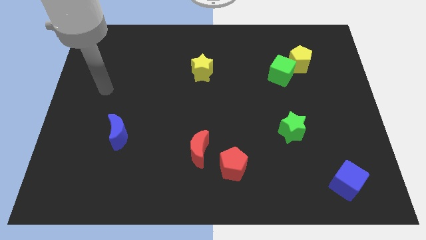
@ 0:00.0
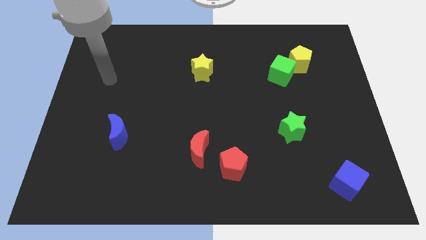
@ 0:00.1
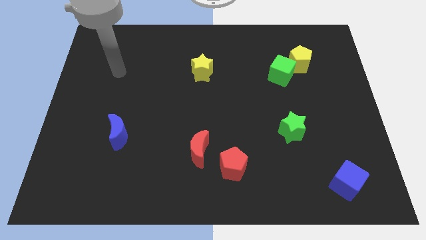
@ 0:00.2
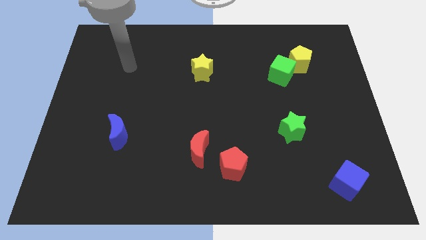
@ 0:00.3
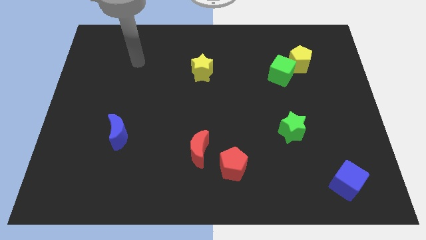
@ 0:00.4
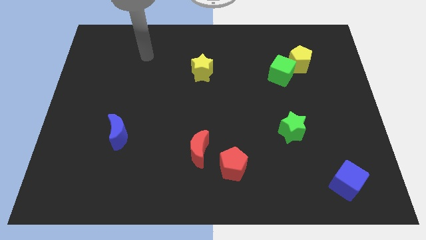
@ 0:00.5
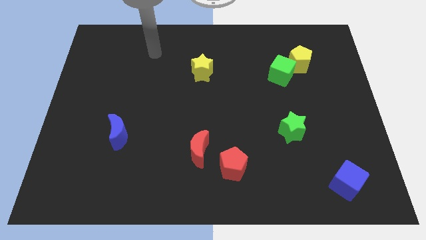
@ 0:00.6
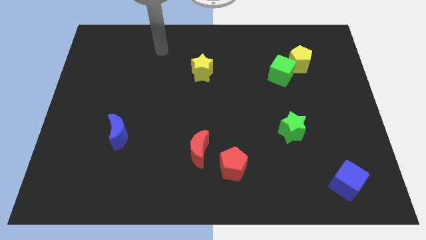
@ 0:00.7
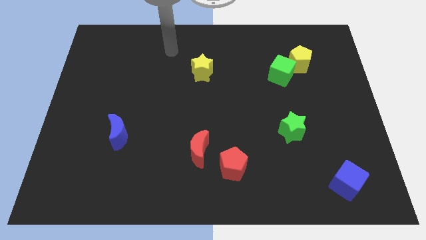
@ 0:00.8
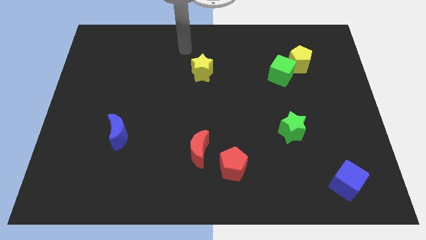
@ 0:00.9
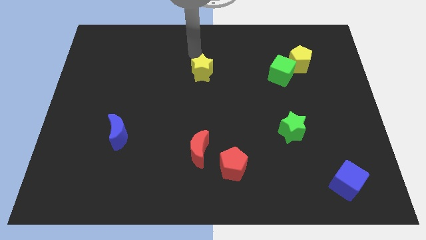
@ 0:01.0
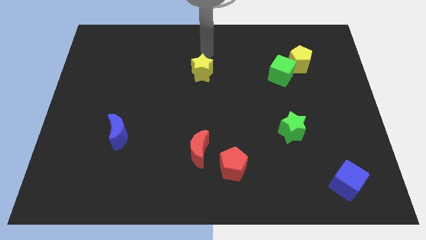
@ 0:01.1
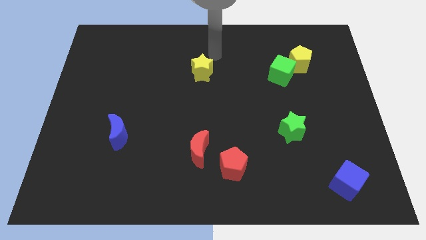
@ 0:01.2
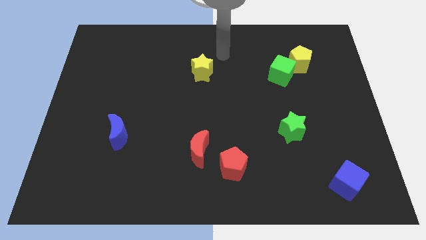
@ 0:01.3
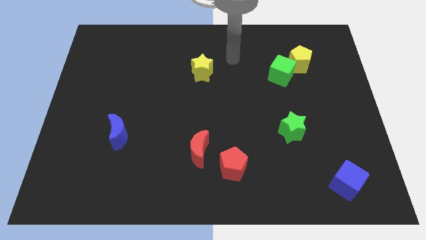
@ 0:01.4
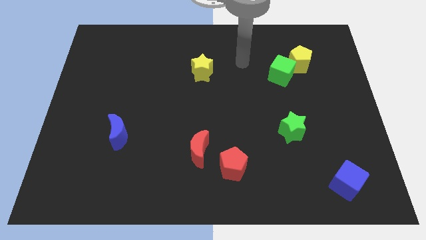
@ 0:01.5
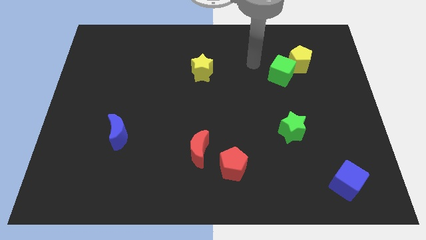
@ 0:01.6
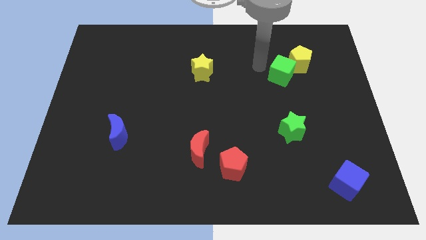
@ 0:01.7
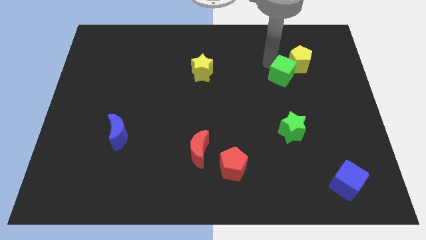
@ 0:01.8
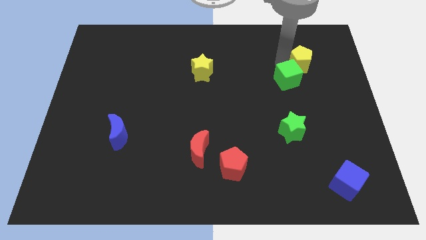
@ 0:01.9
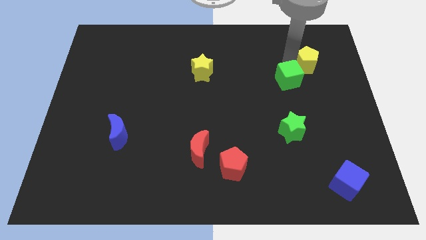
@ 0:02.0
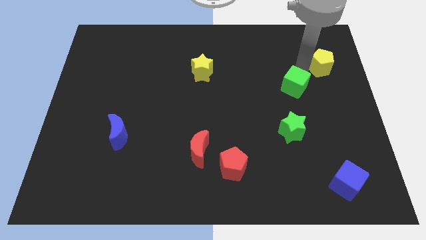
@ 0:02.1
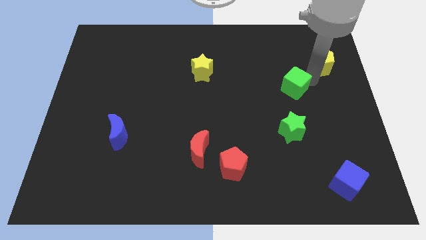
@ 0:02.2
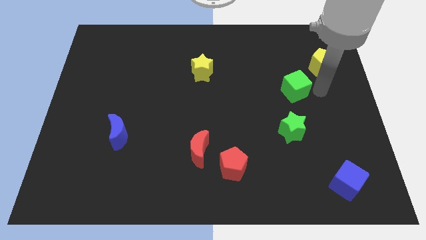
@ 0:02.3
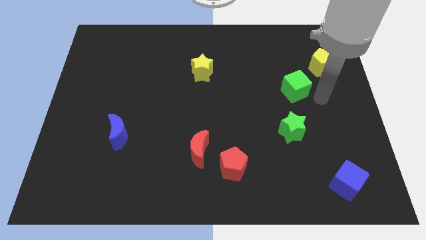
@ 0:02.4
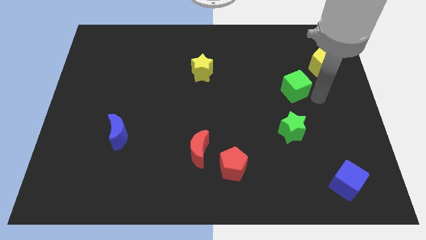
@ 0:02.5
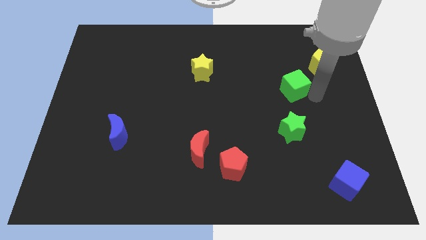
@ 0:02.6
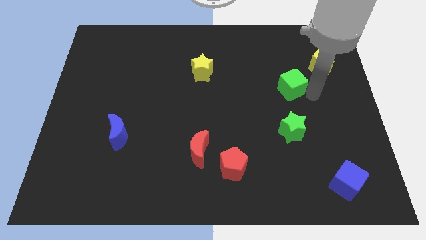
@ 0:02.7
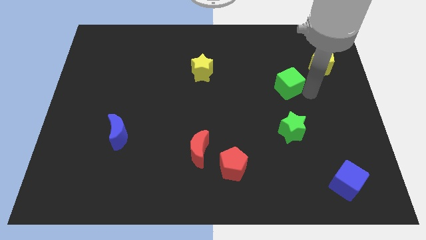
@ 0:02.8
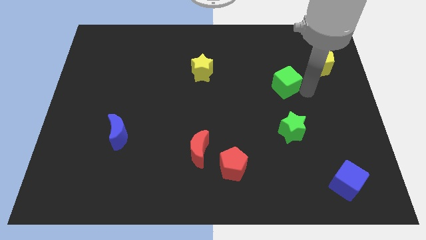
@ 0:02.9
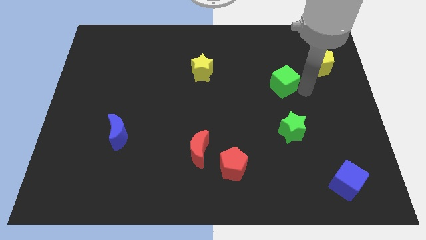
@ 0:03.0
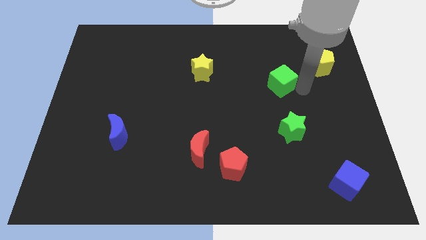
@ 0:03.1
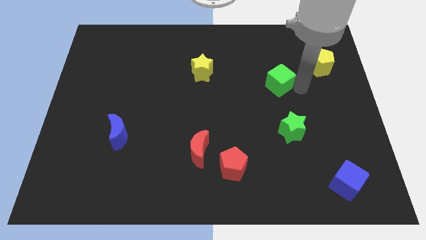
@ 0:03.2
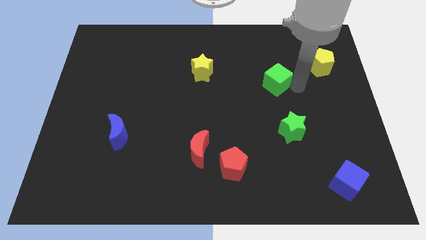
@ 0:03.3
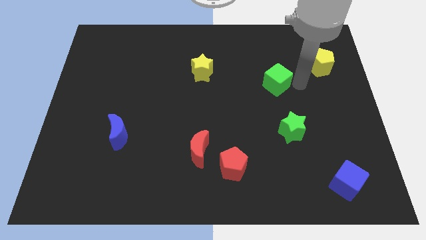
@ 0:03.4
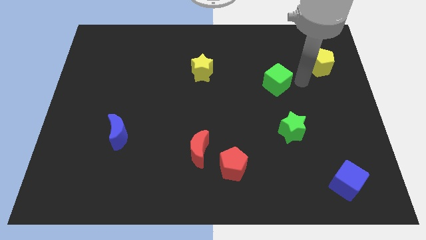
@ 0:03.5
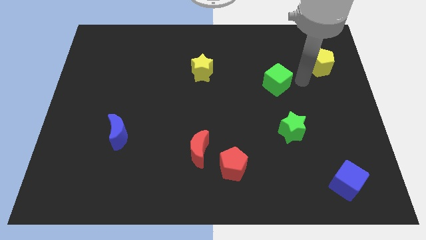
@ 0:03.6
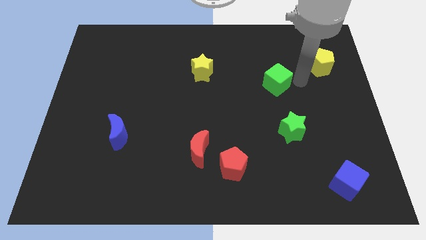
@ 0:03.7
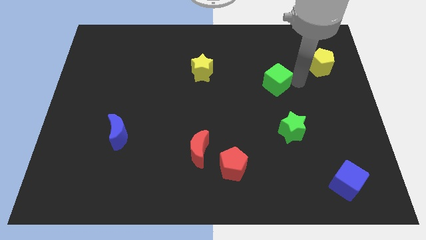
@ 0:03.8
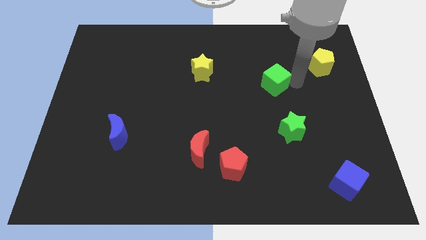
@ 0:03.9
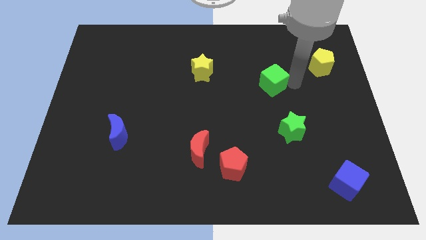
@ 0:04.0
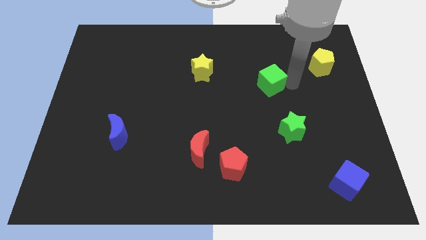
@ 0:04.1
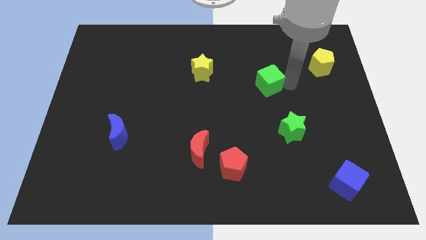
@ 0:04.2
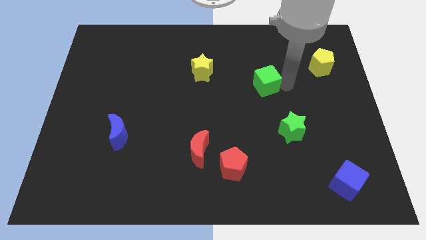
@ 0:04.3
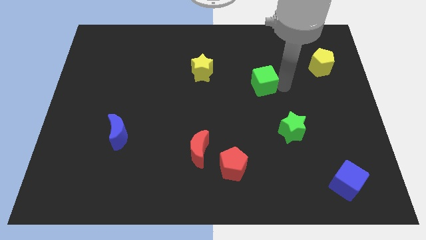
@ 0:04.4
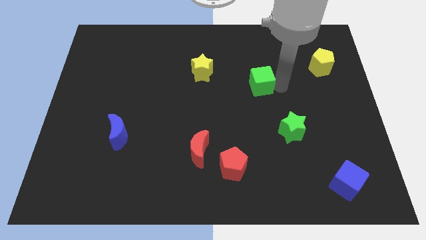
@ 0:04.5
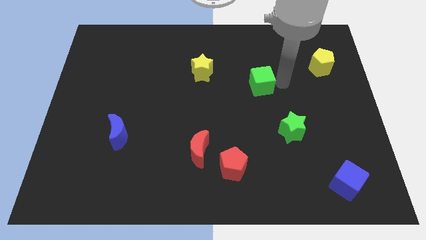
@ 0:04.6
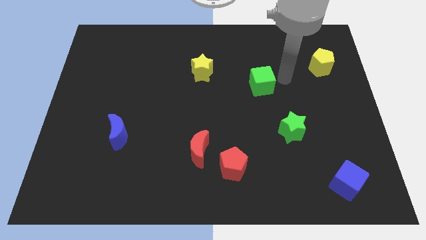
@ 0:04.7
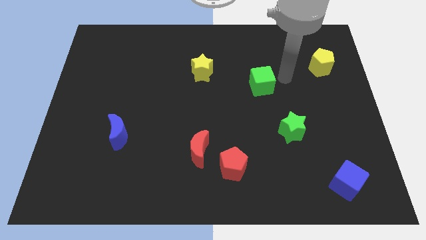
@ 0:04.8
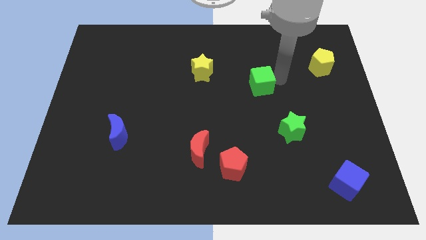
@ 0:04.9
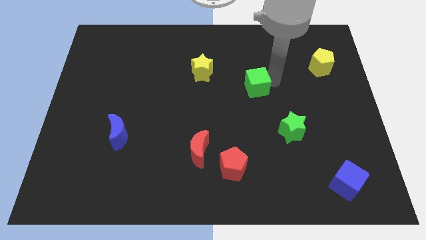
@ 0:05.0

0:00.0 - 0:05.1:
move the green cube to the center

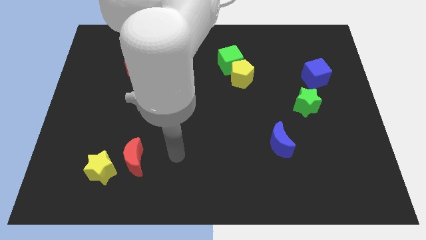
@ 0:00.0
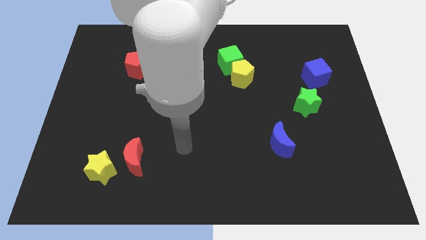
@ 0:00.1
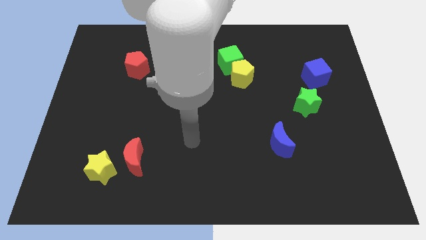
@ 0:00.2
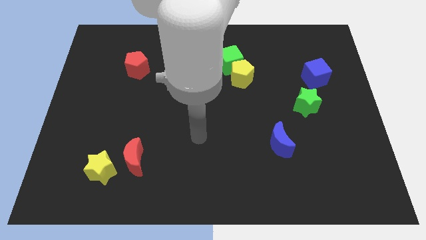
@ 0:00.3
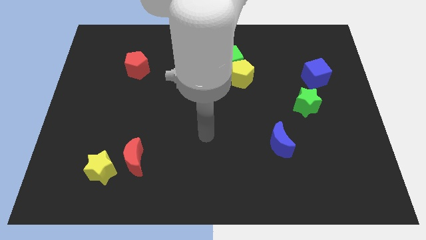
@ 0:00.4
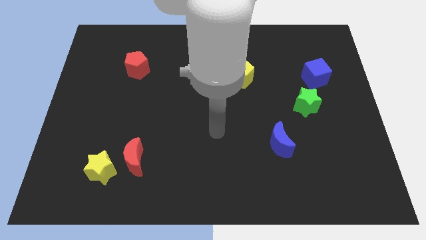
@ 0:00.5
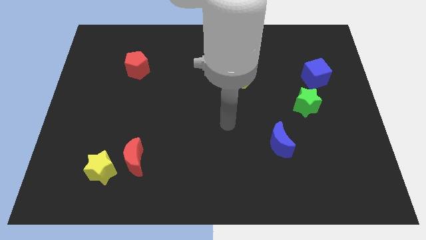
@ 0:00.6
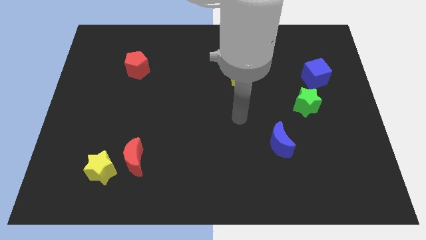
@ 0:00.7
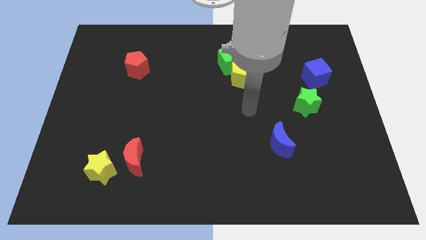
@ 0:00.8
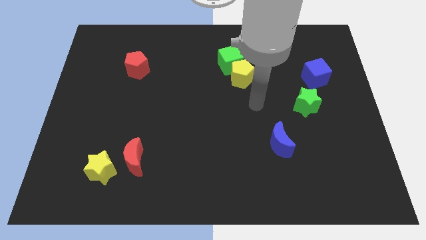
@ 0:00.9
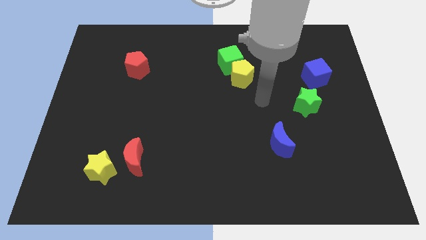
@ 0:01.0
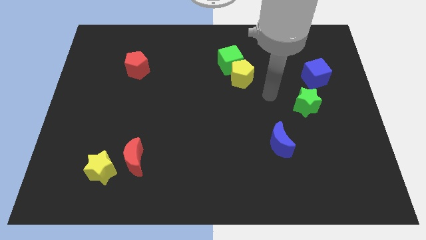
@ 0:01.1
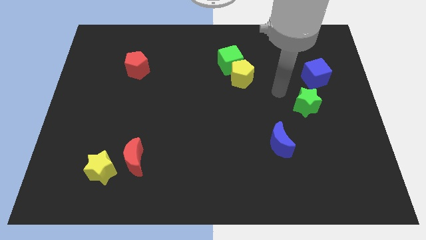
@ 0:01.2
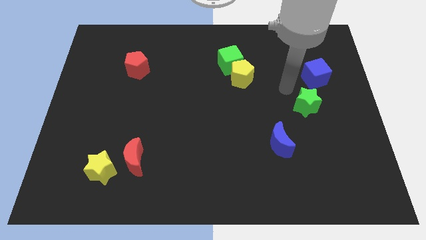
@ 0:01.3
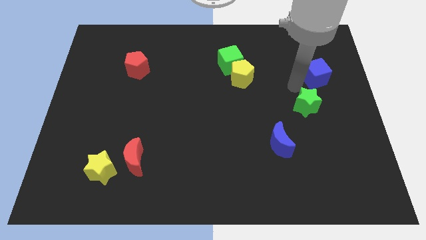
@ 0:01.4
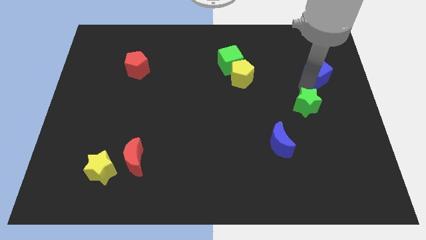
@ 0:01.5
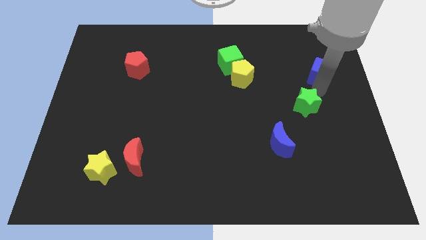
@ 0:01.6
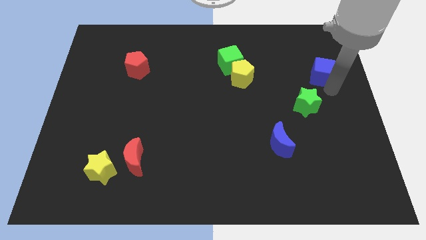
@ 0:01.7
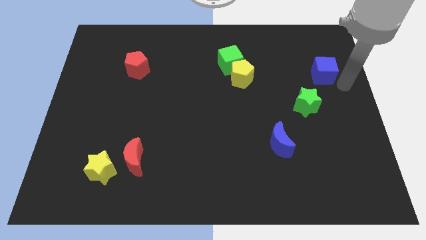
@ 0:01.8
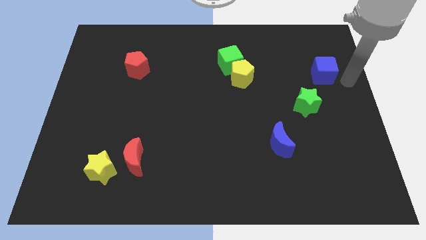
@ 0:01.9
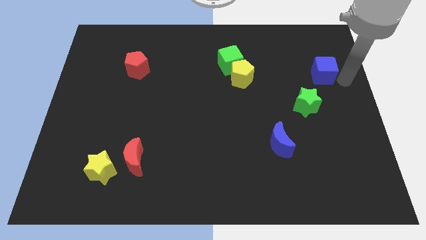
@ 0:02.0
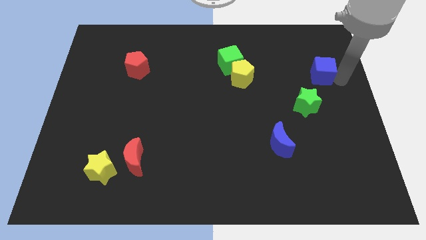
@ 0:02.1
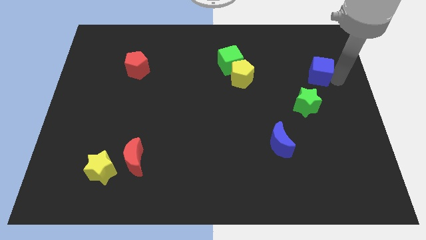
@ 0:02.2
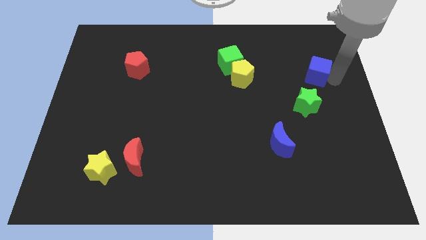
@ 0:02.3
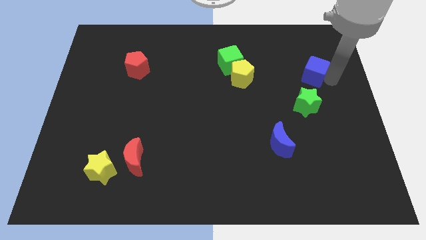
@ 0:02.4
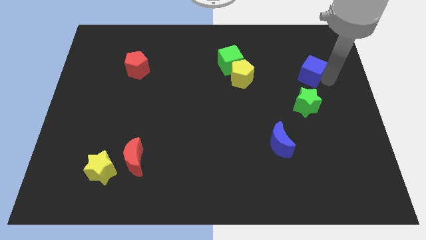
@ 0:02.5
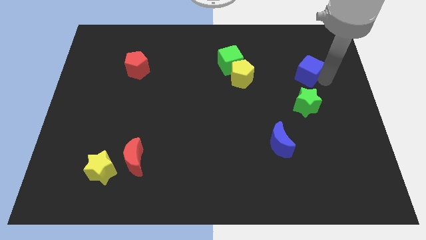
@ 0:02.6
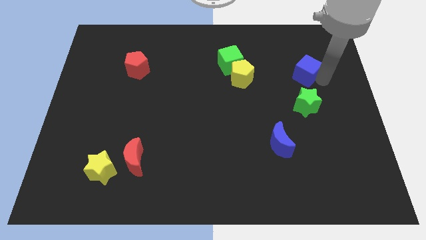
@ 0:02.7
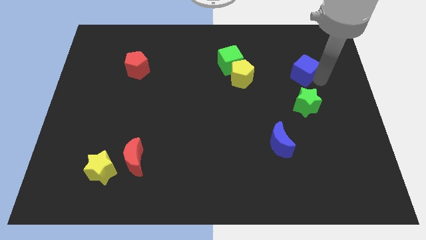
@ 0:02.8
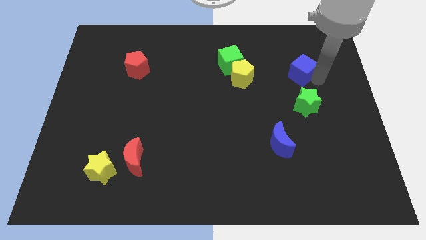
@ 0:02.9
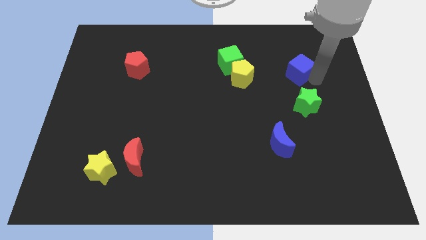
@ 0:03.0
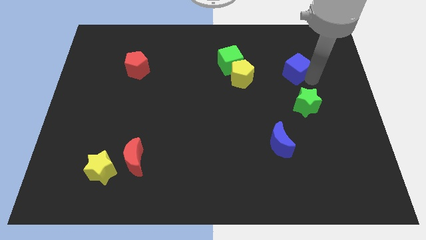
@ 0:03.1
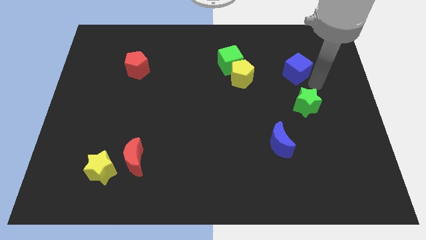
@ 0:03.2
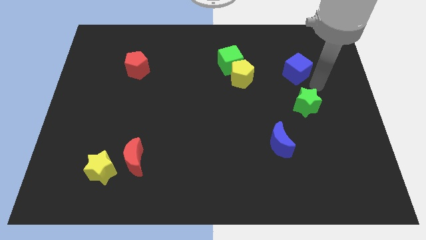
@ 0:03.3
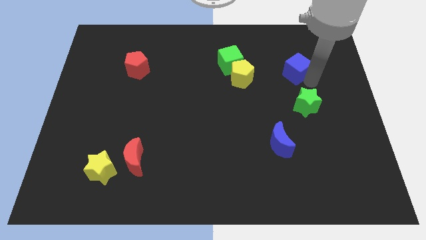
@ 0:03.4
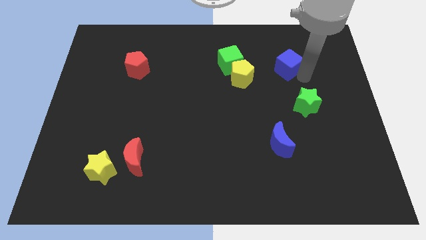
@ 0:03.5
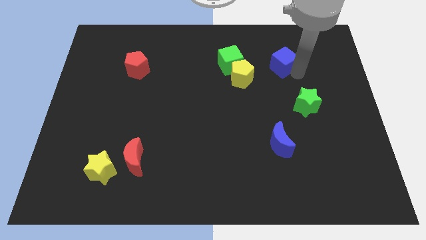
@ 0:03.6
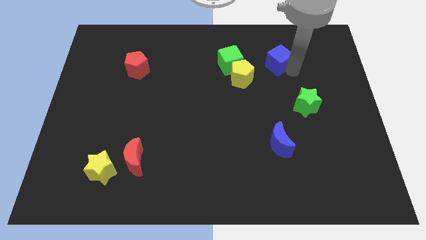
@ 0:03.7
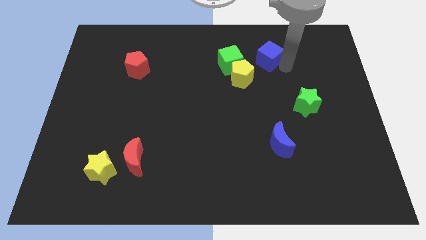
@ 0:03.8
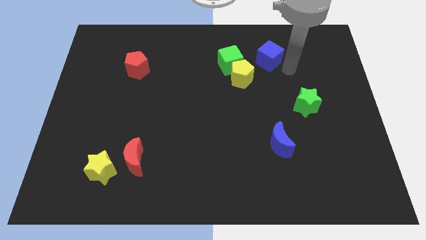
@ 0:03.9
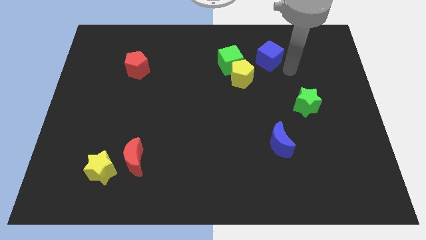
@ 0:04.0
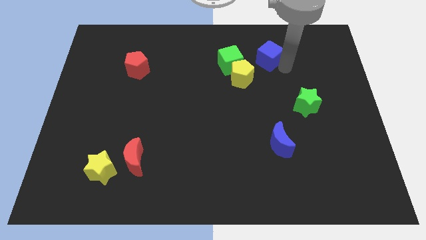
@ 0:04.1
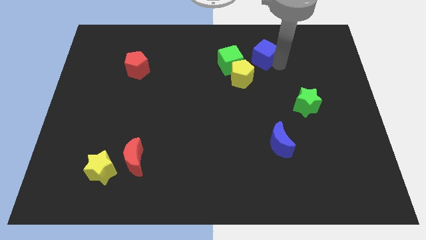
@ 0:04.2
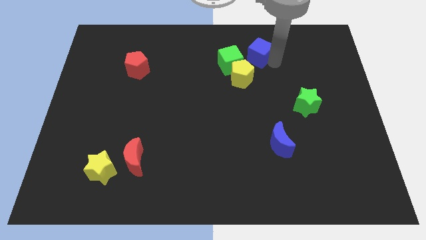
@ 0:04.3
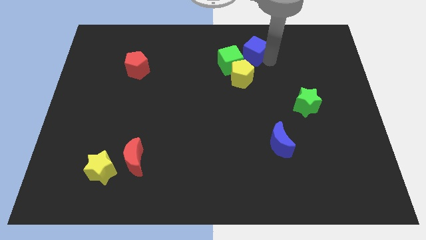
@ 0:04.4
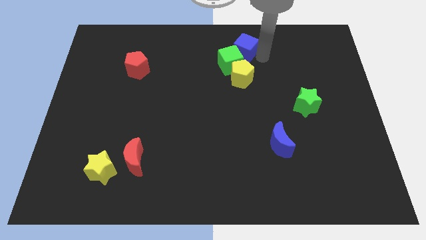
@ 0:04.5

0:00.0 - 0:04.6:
push the blue cube to the towards your base
